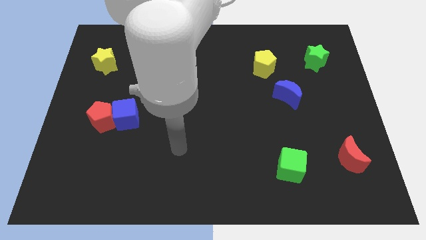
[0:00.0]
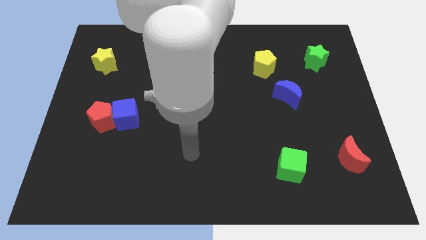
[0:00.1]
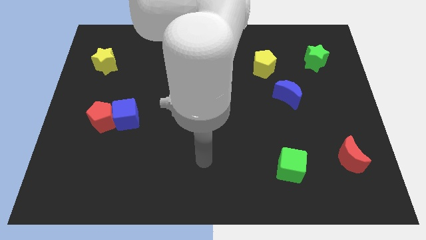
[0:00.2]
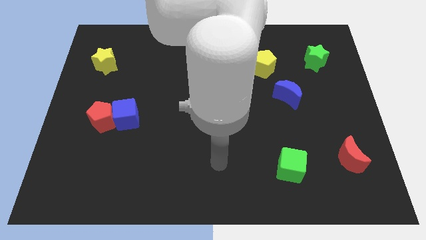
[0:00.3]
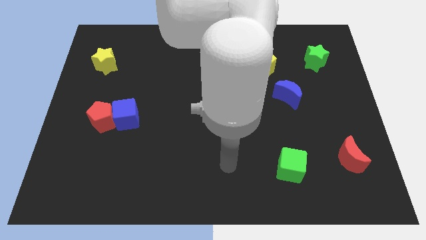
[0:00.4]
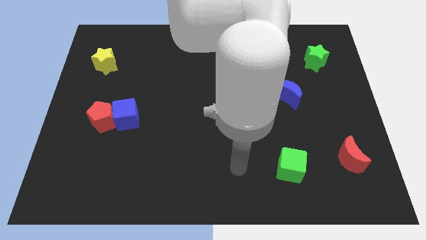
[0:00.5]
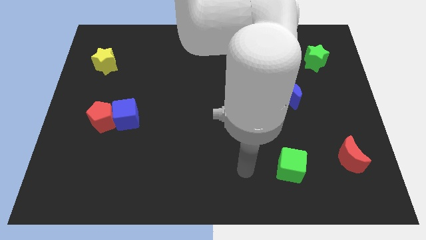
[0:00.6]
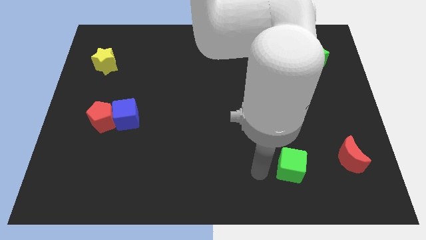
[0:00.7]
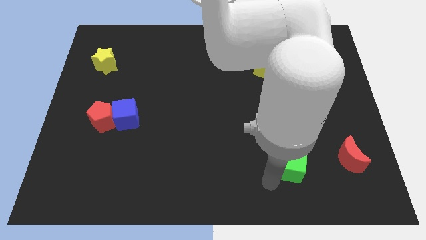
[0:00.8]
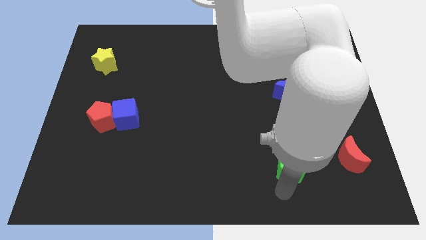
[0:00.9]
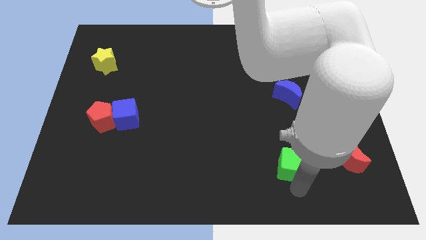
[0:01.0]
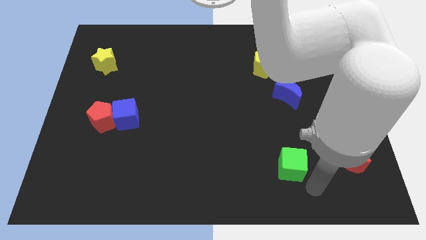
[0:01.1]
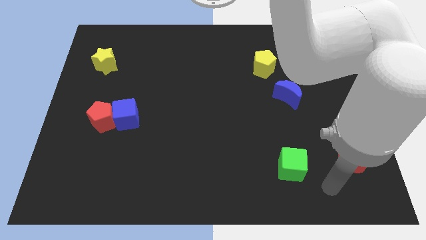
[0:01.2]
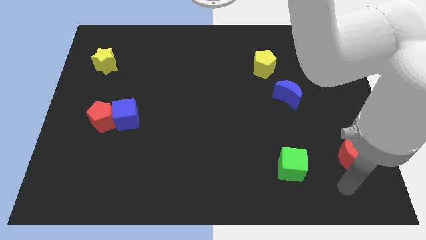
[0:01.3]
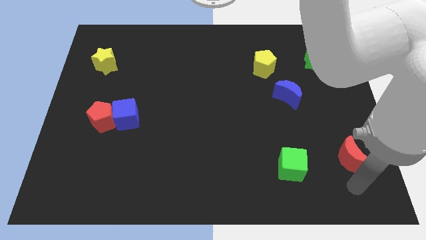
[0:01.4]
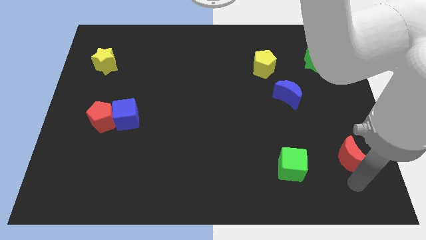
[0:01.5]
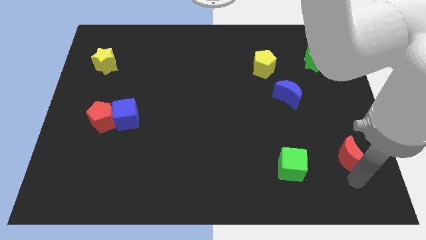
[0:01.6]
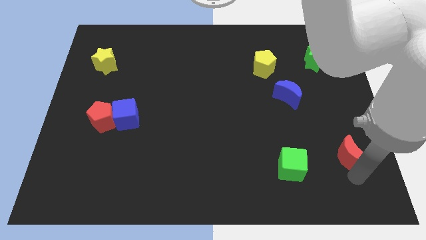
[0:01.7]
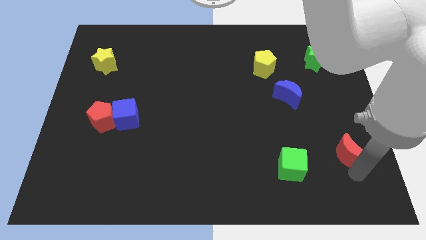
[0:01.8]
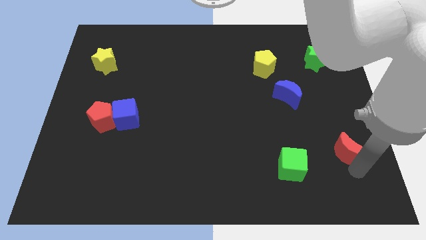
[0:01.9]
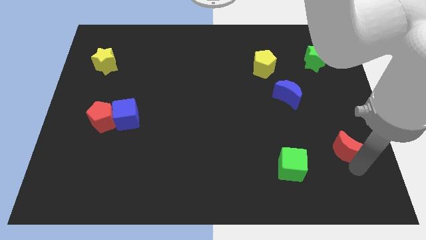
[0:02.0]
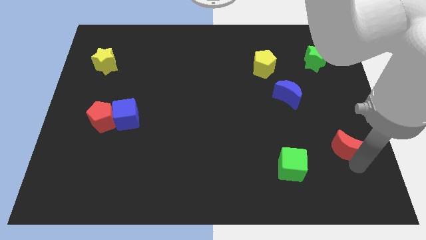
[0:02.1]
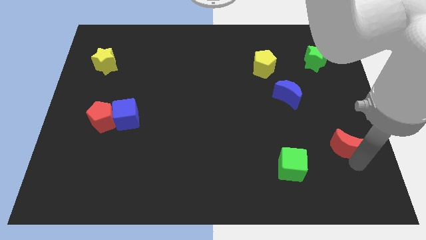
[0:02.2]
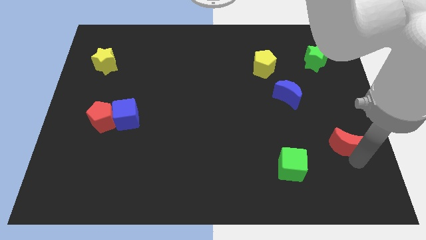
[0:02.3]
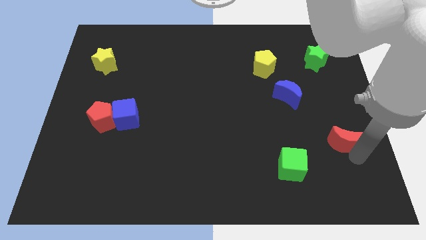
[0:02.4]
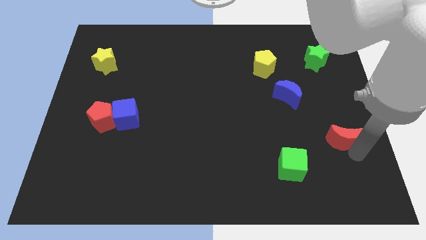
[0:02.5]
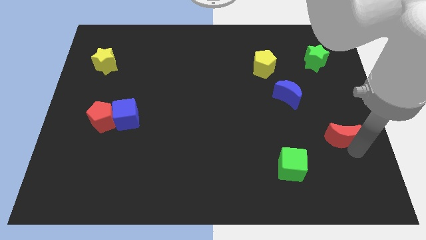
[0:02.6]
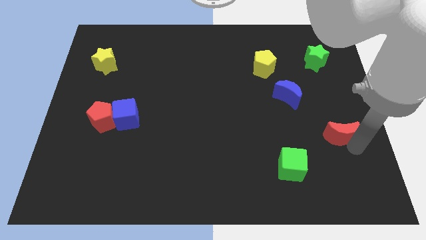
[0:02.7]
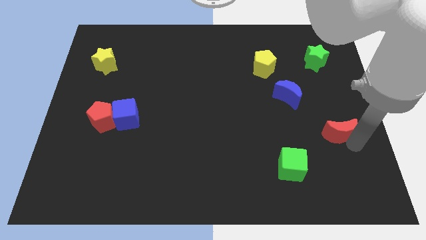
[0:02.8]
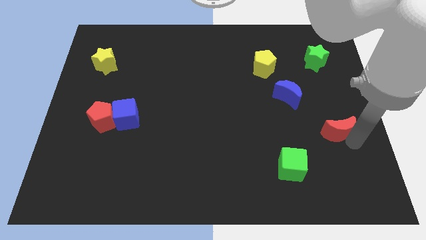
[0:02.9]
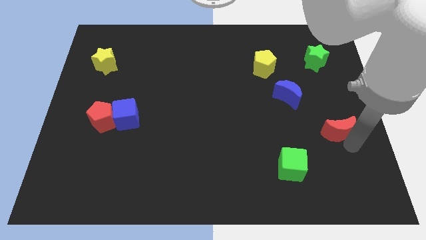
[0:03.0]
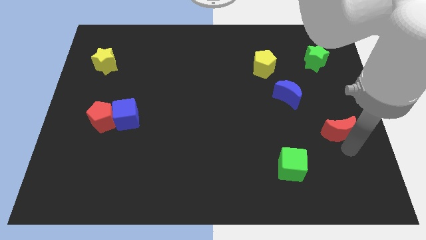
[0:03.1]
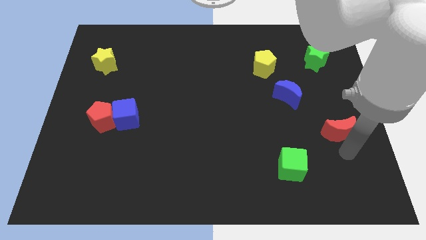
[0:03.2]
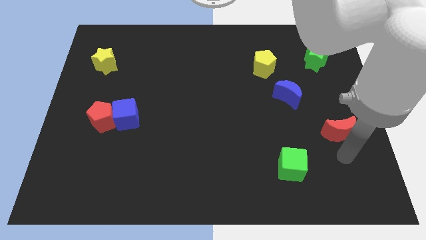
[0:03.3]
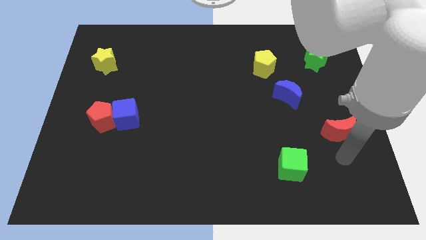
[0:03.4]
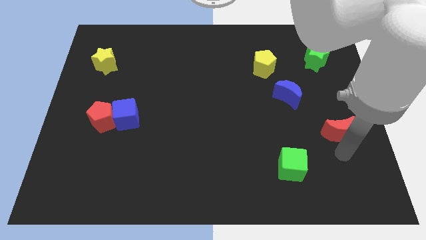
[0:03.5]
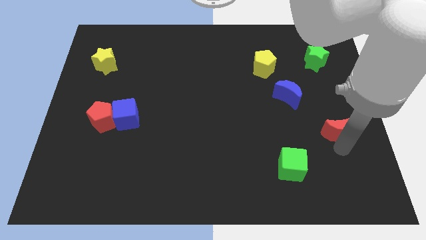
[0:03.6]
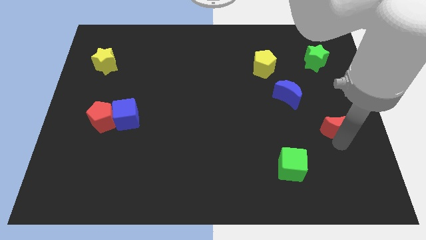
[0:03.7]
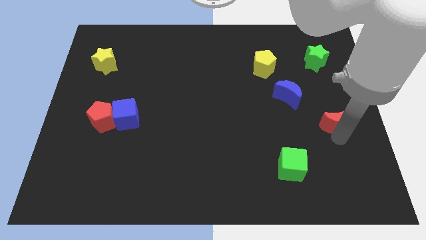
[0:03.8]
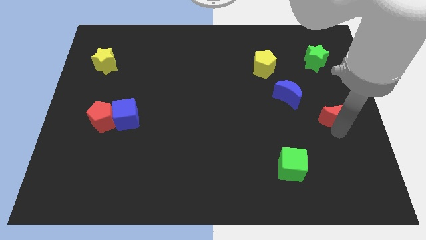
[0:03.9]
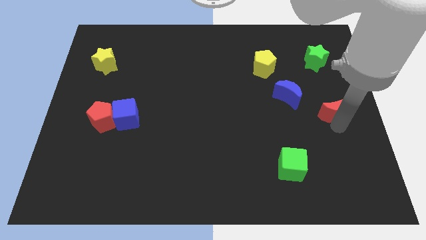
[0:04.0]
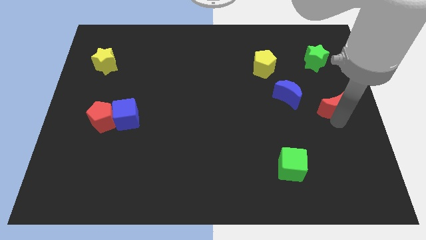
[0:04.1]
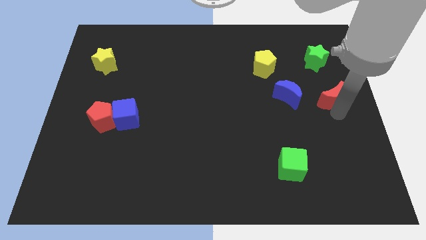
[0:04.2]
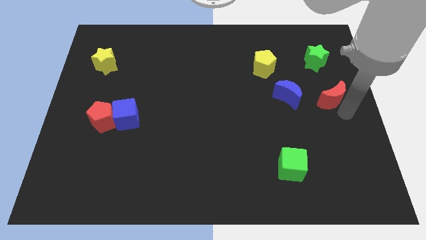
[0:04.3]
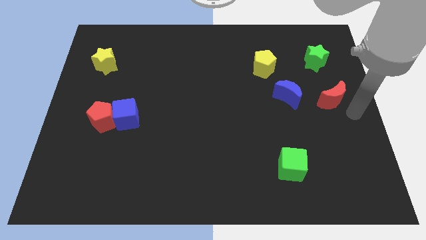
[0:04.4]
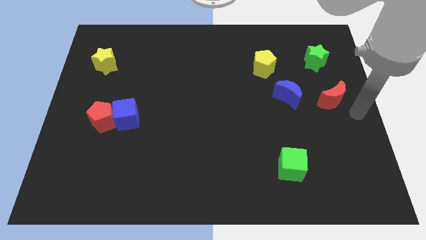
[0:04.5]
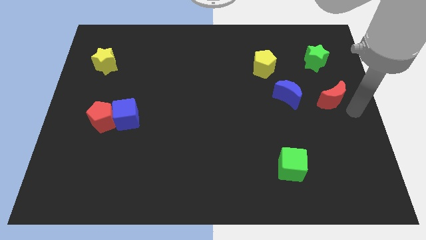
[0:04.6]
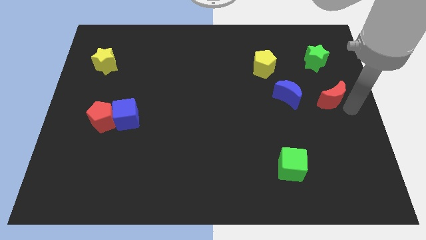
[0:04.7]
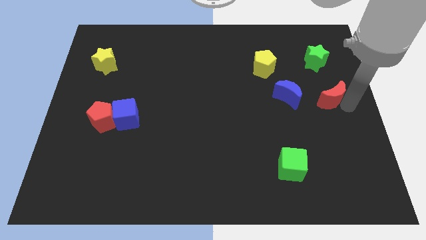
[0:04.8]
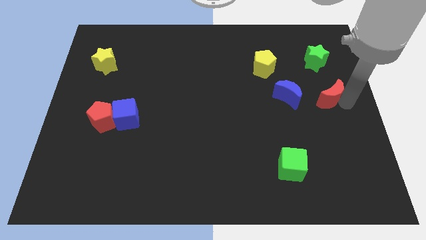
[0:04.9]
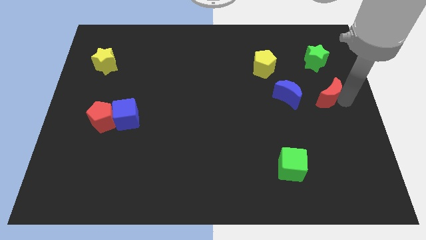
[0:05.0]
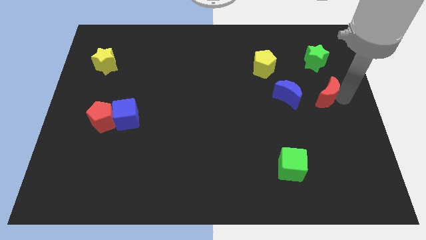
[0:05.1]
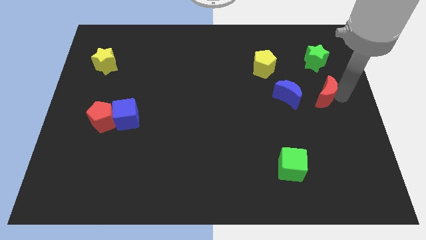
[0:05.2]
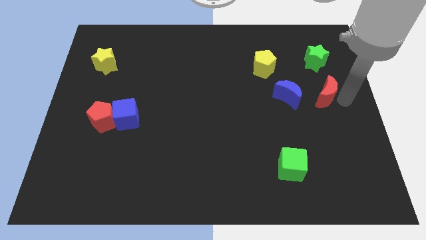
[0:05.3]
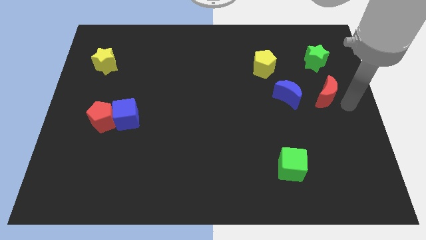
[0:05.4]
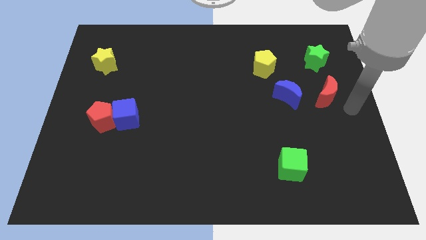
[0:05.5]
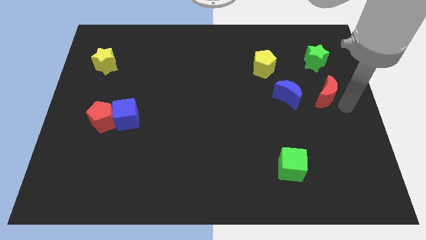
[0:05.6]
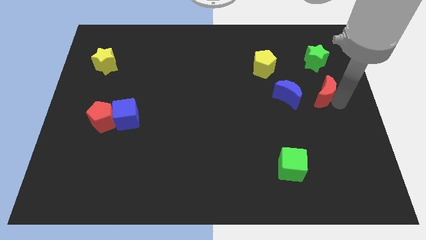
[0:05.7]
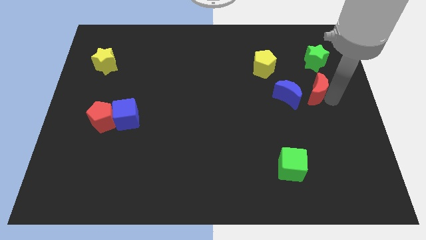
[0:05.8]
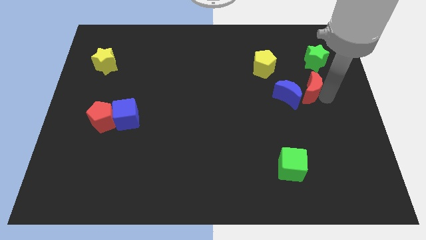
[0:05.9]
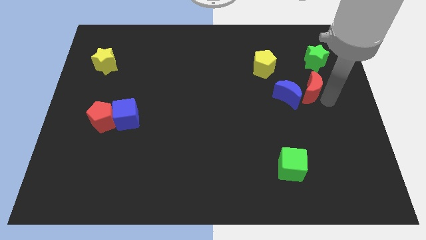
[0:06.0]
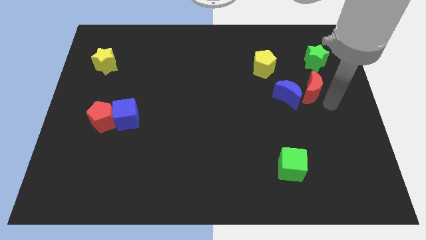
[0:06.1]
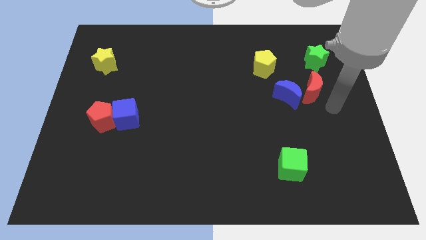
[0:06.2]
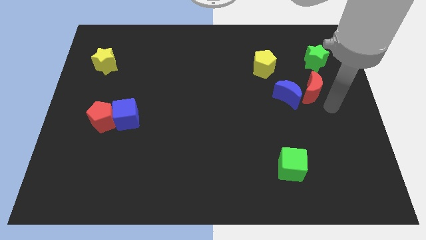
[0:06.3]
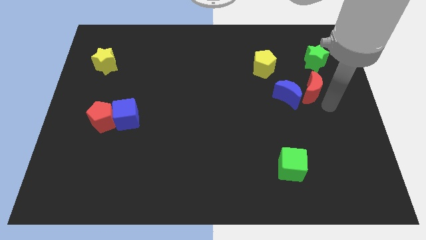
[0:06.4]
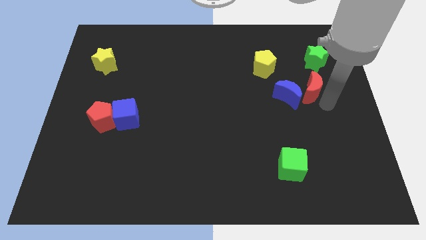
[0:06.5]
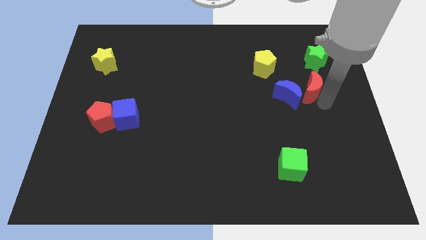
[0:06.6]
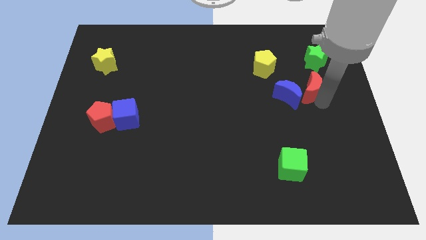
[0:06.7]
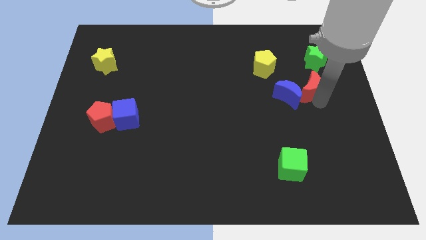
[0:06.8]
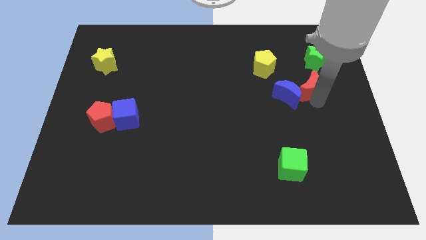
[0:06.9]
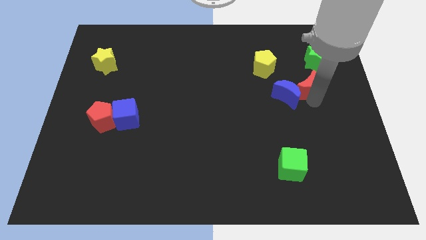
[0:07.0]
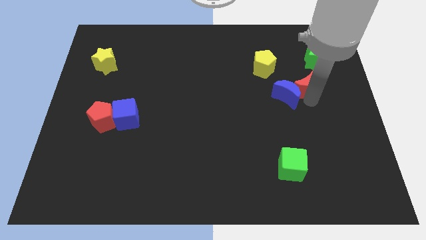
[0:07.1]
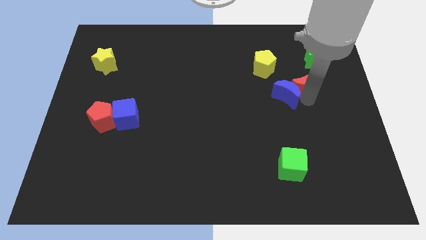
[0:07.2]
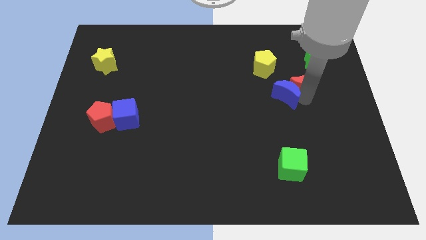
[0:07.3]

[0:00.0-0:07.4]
slide the red moon to the top of the blue moon

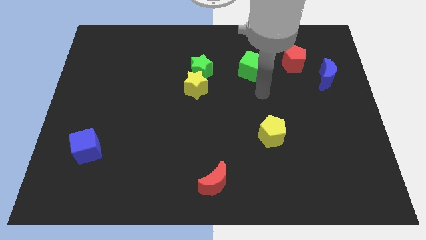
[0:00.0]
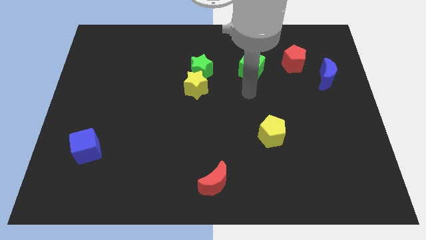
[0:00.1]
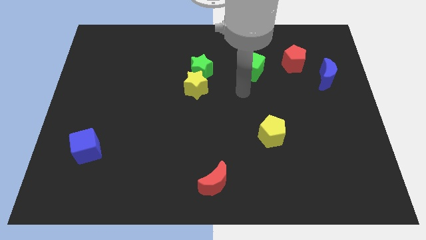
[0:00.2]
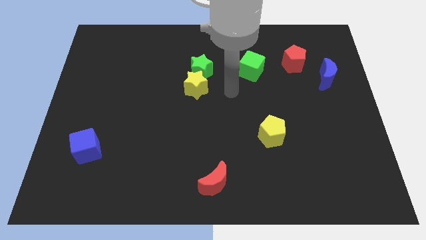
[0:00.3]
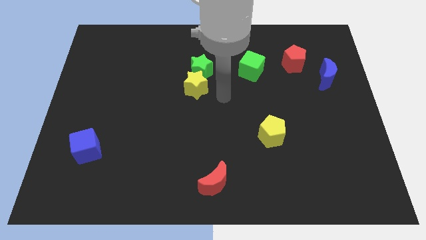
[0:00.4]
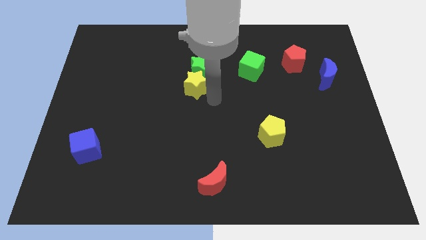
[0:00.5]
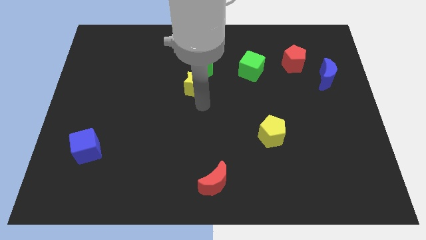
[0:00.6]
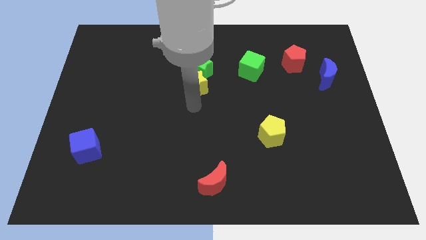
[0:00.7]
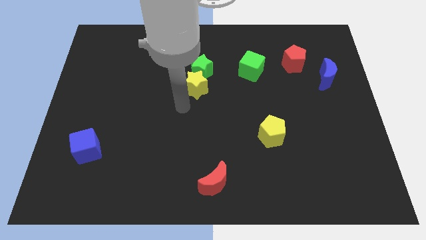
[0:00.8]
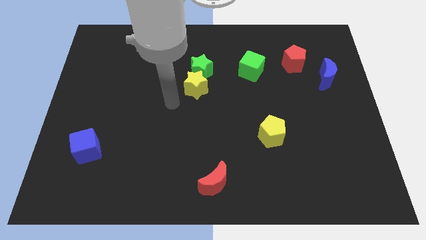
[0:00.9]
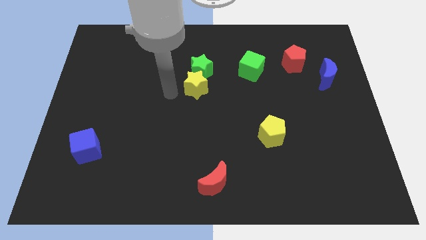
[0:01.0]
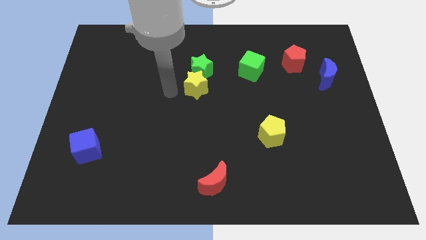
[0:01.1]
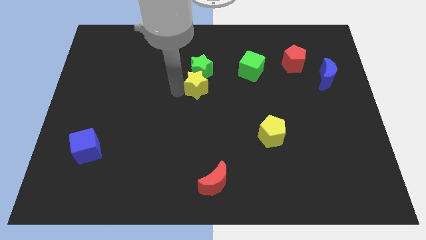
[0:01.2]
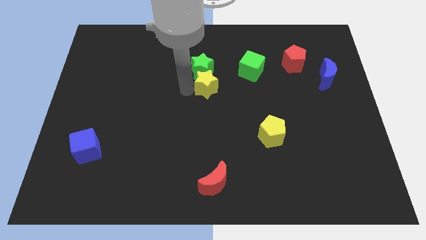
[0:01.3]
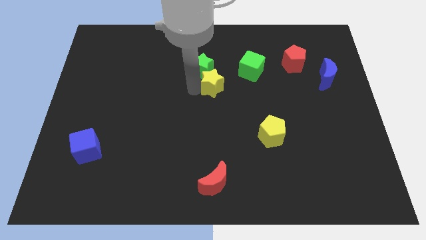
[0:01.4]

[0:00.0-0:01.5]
move the yellow star to the bottom left side of the green cube
